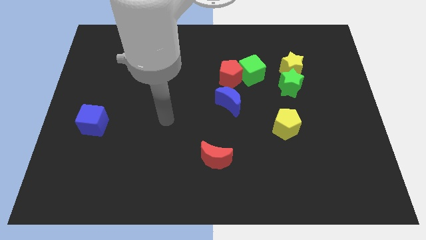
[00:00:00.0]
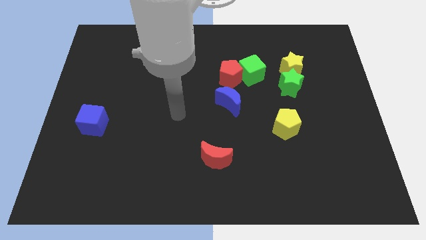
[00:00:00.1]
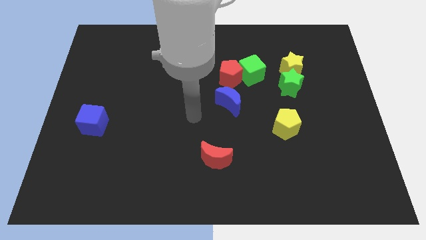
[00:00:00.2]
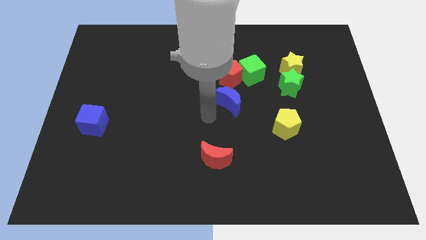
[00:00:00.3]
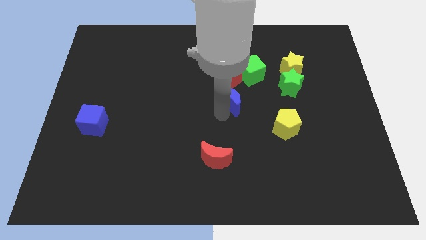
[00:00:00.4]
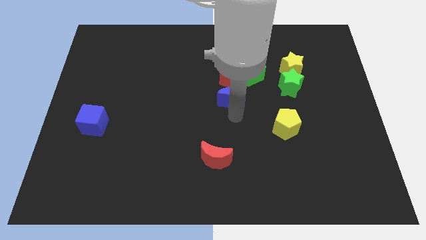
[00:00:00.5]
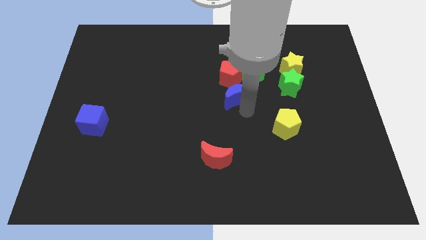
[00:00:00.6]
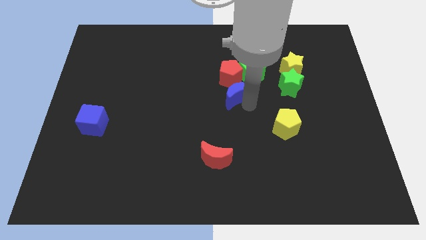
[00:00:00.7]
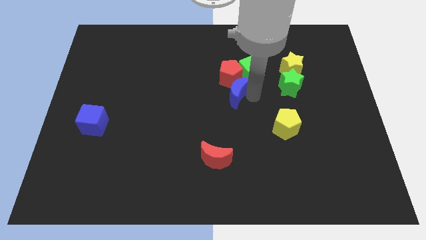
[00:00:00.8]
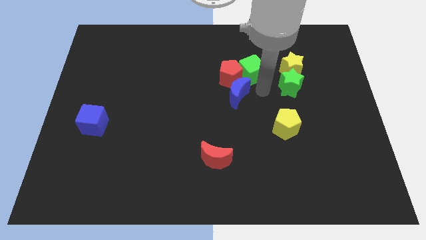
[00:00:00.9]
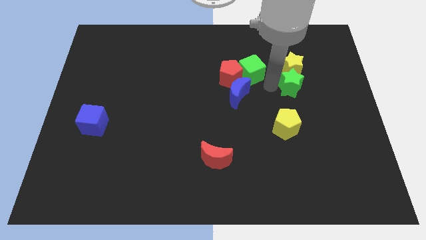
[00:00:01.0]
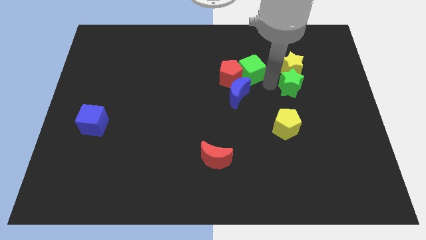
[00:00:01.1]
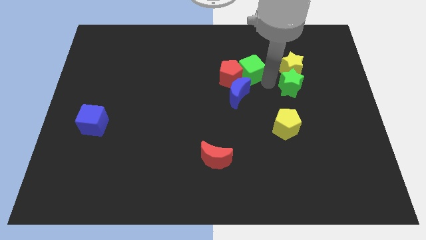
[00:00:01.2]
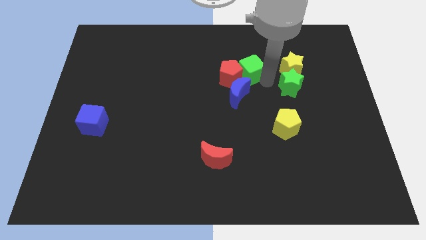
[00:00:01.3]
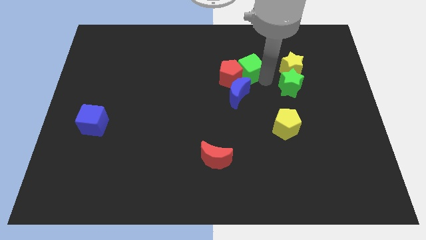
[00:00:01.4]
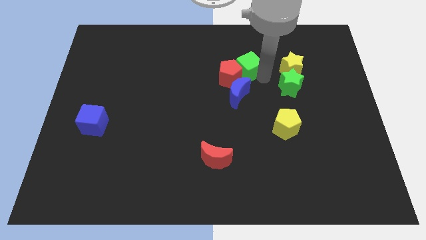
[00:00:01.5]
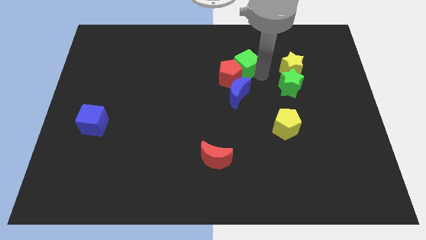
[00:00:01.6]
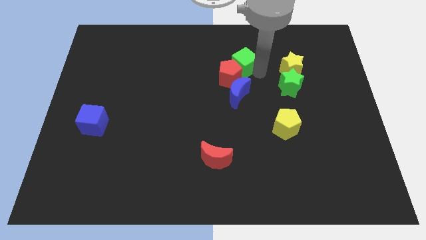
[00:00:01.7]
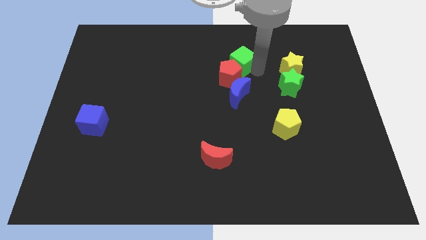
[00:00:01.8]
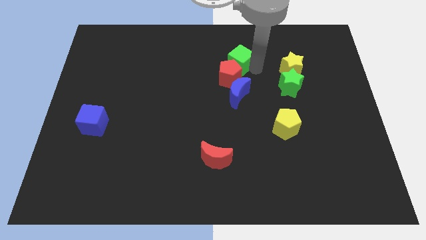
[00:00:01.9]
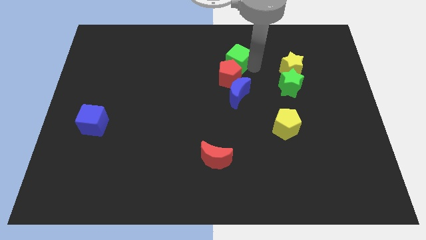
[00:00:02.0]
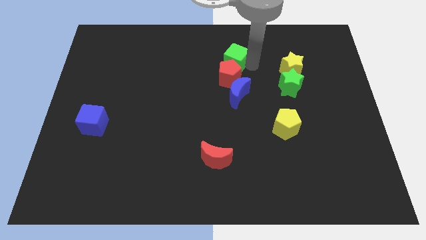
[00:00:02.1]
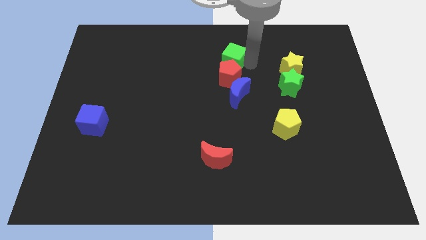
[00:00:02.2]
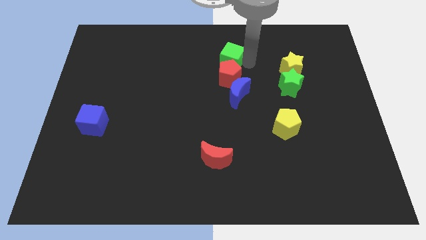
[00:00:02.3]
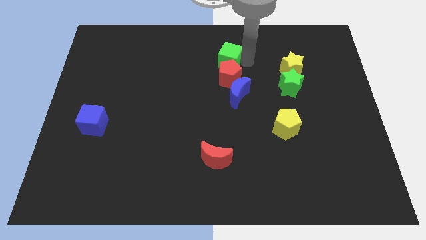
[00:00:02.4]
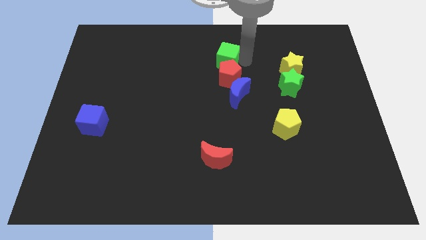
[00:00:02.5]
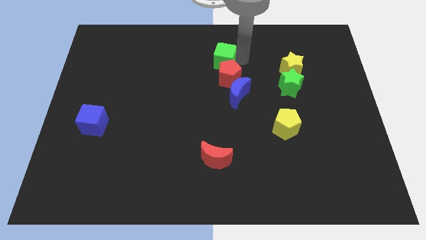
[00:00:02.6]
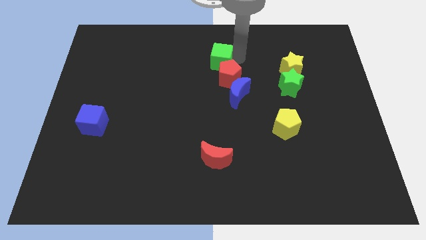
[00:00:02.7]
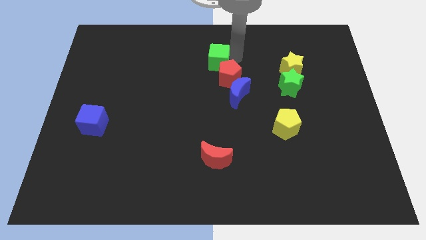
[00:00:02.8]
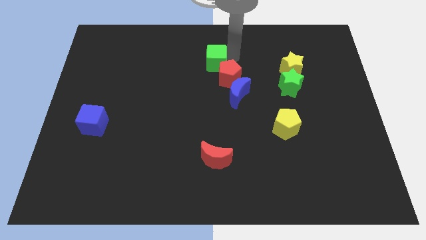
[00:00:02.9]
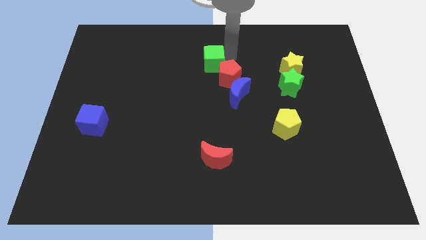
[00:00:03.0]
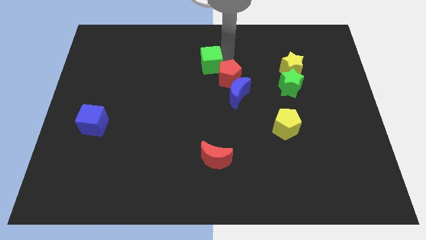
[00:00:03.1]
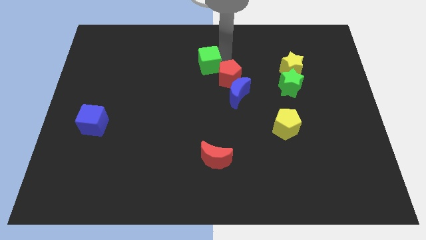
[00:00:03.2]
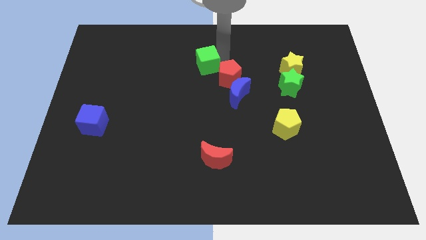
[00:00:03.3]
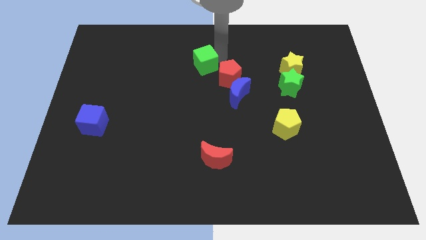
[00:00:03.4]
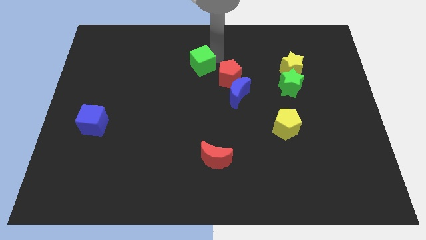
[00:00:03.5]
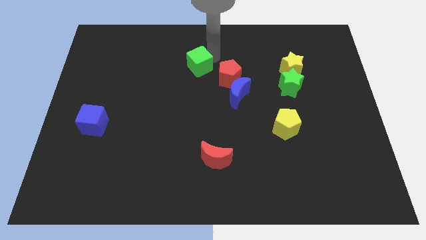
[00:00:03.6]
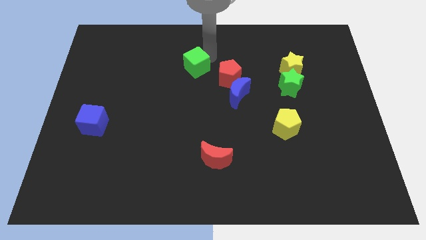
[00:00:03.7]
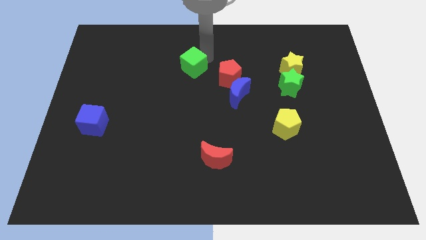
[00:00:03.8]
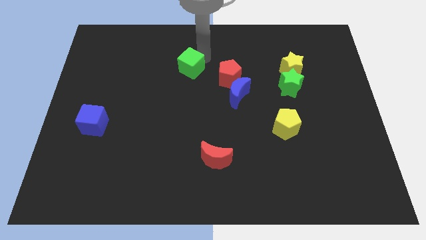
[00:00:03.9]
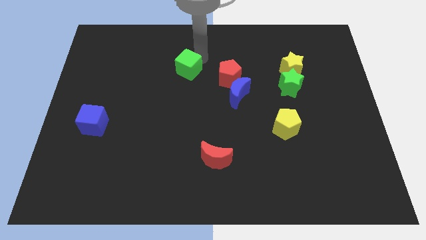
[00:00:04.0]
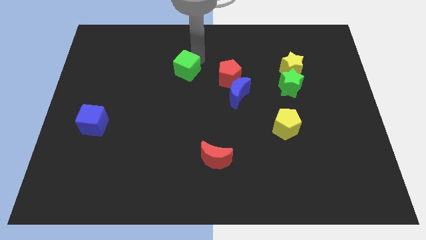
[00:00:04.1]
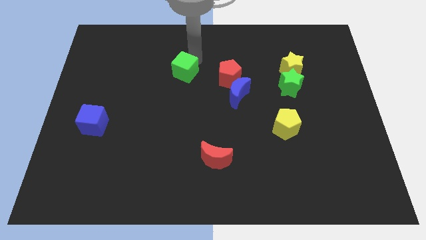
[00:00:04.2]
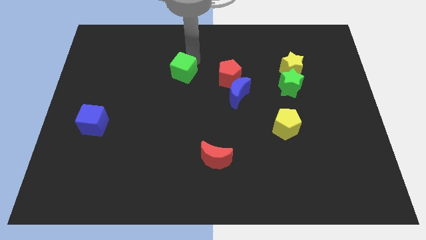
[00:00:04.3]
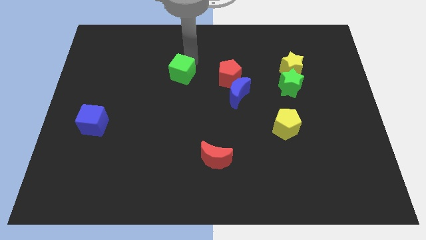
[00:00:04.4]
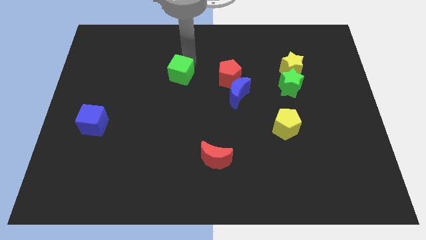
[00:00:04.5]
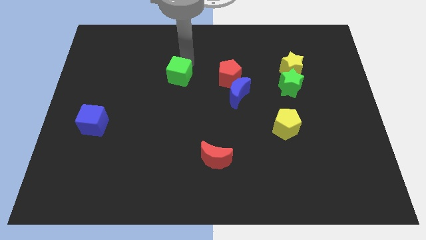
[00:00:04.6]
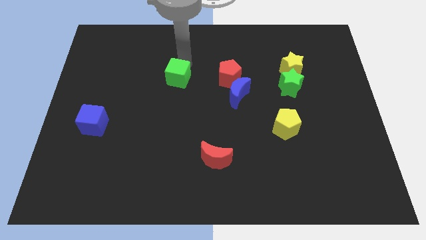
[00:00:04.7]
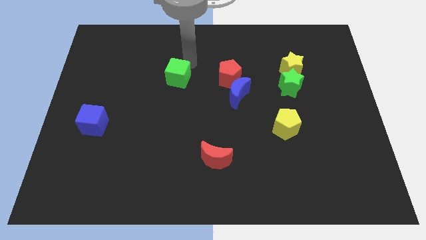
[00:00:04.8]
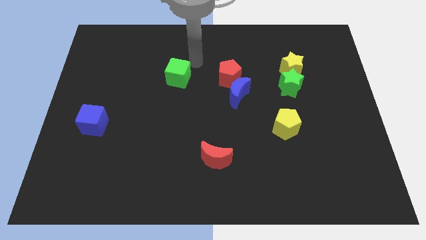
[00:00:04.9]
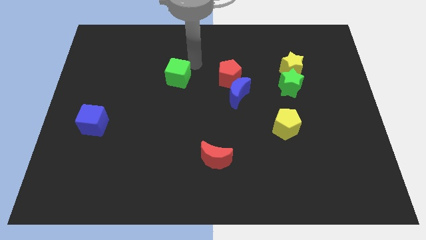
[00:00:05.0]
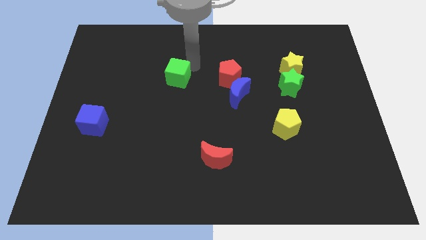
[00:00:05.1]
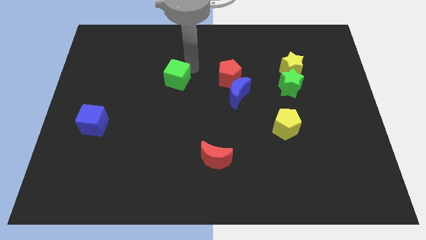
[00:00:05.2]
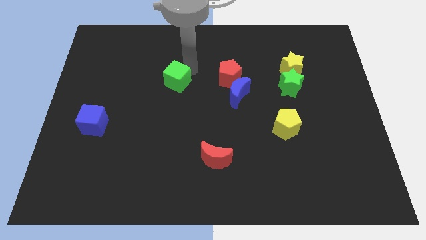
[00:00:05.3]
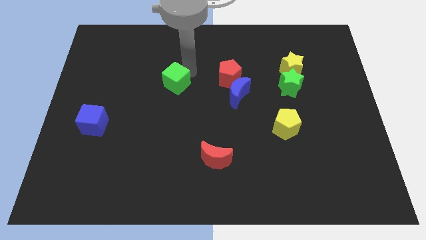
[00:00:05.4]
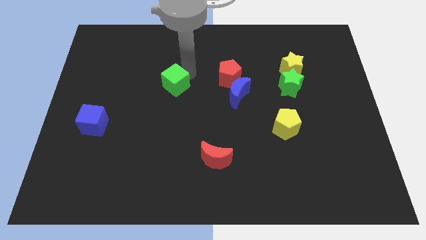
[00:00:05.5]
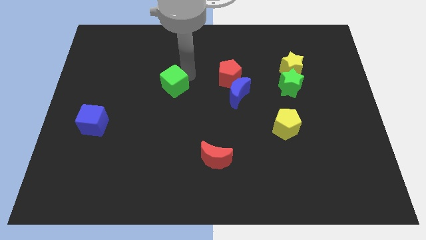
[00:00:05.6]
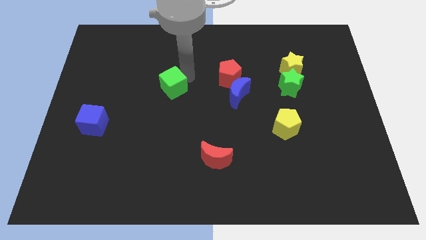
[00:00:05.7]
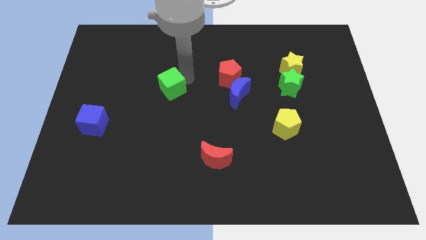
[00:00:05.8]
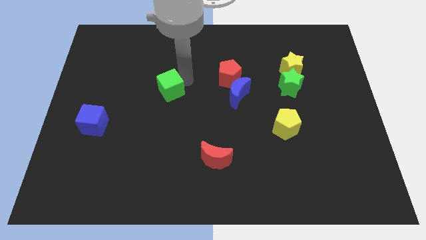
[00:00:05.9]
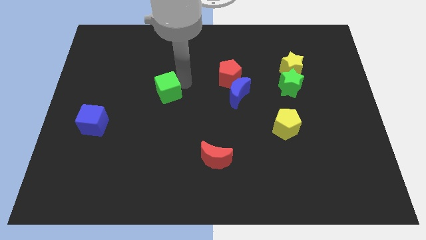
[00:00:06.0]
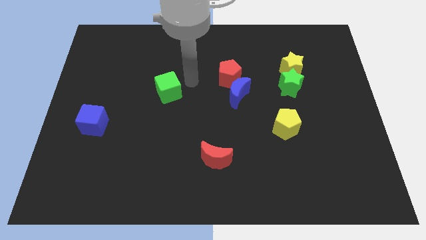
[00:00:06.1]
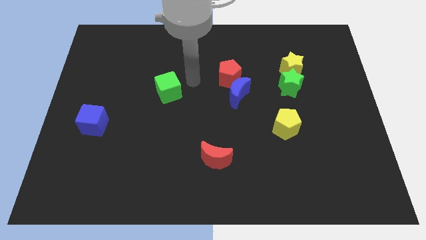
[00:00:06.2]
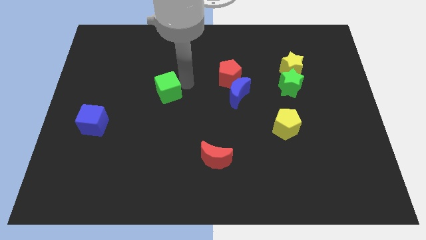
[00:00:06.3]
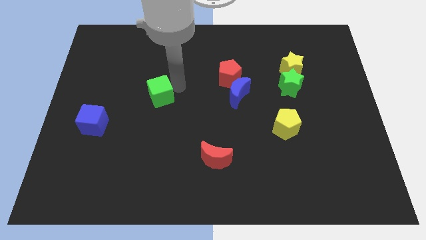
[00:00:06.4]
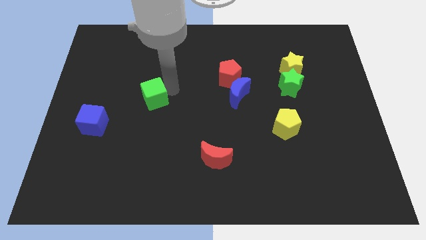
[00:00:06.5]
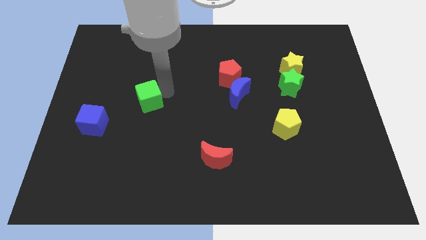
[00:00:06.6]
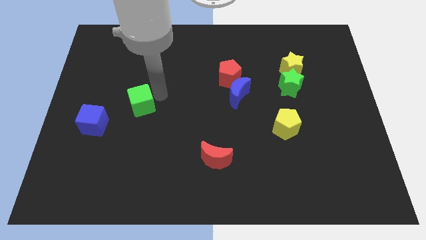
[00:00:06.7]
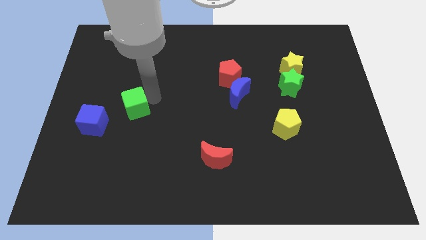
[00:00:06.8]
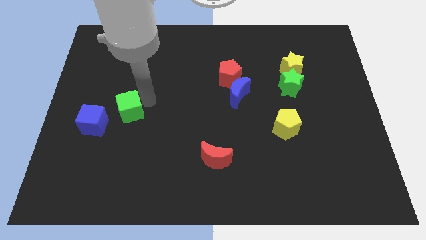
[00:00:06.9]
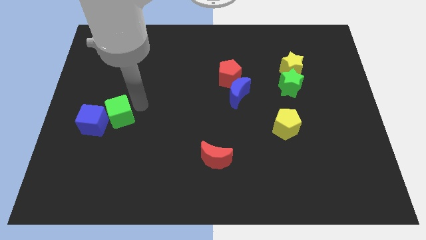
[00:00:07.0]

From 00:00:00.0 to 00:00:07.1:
push the green cube close to the blue cube

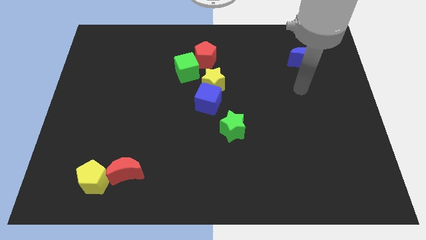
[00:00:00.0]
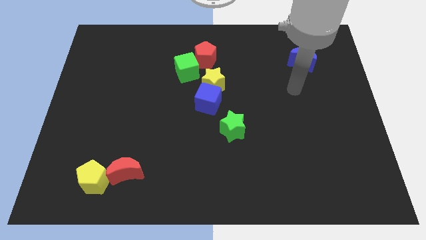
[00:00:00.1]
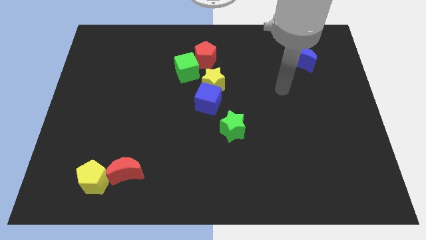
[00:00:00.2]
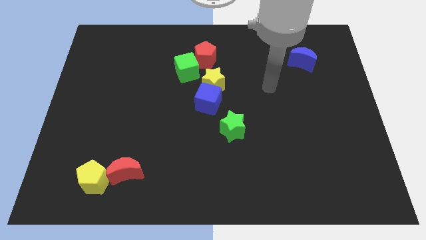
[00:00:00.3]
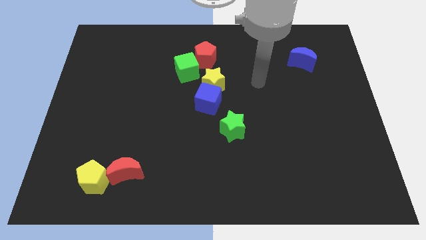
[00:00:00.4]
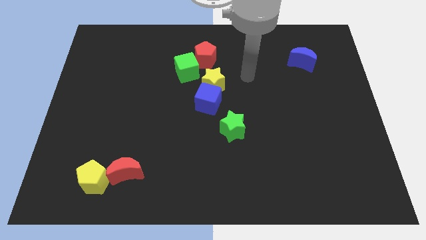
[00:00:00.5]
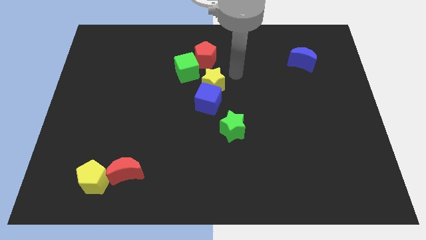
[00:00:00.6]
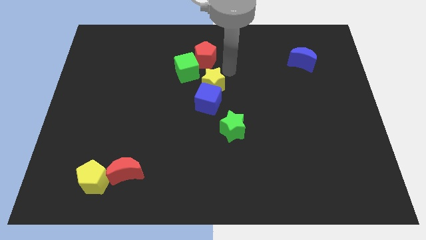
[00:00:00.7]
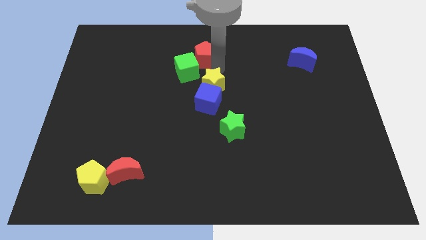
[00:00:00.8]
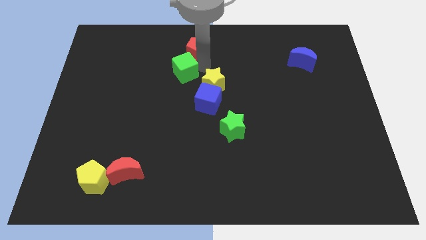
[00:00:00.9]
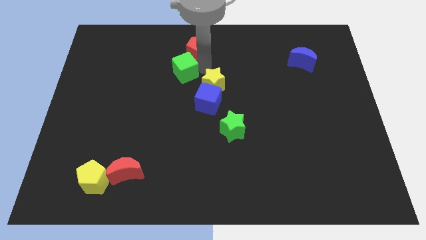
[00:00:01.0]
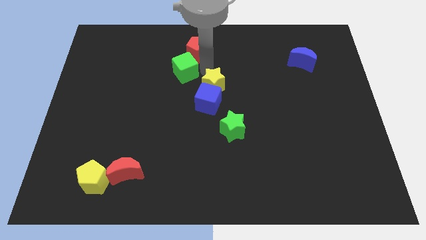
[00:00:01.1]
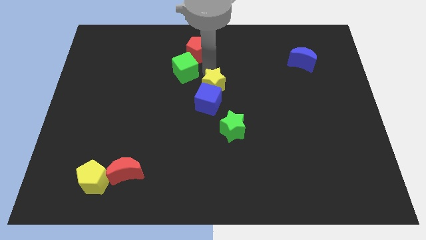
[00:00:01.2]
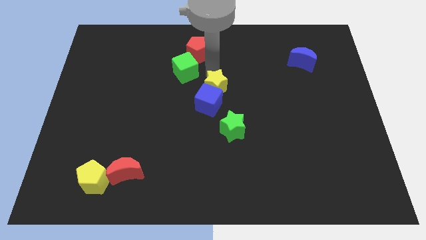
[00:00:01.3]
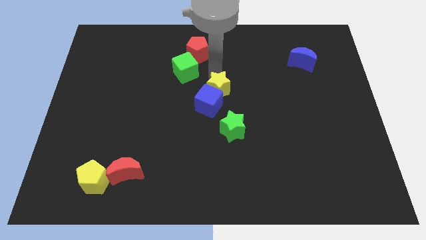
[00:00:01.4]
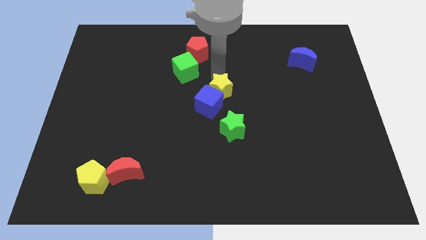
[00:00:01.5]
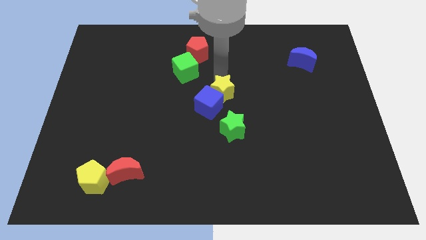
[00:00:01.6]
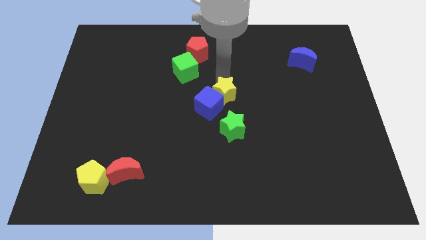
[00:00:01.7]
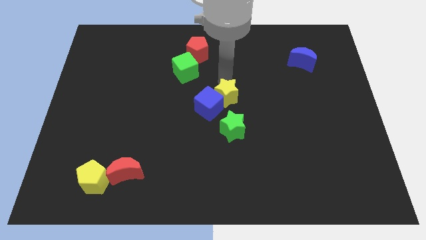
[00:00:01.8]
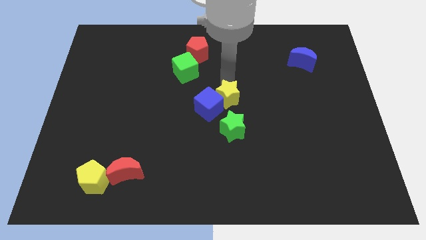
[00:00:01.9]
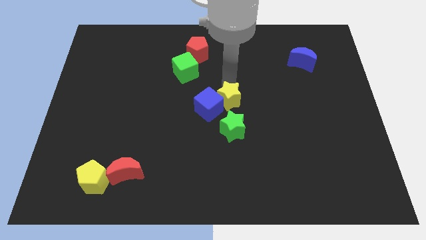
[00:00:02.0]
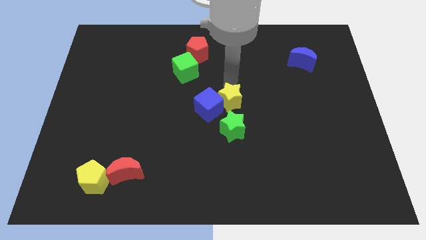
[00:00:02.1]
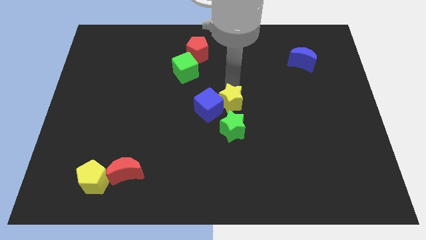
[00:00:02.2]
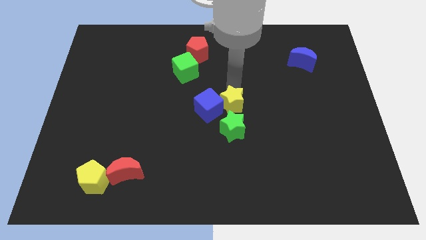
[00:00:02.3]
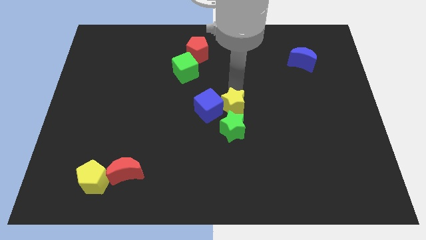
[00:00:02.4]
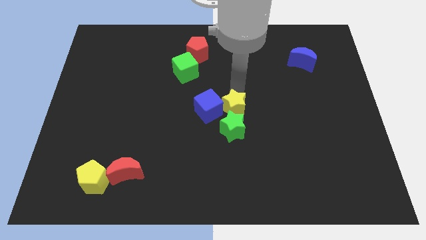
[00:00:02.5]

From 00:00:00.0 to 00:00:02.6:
move the yellow star towards the green star
